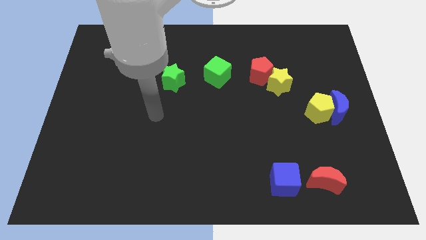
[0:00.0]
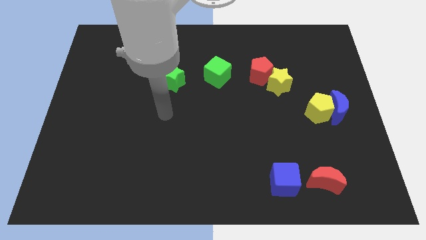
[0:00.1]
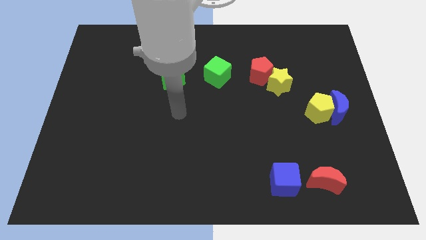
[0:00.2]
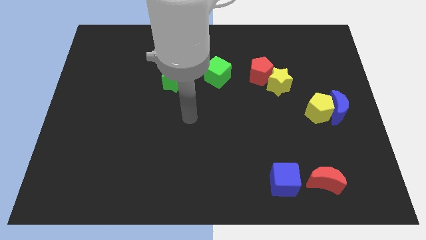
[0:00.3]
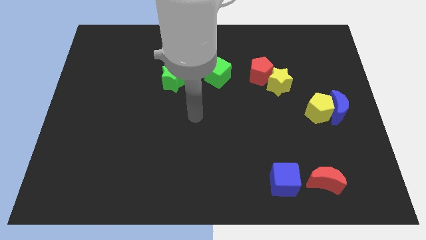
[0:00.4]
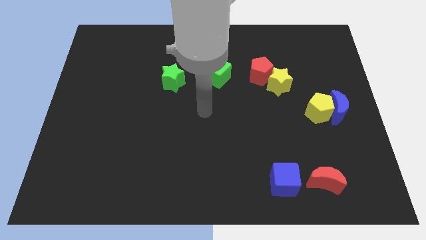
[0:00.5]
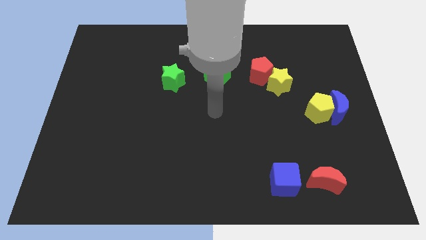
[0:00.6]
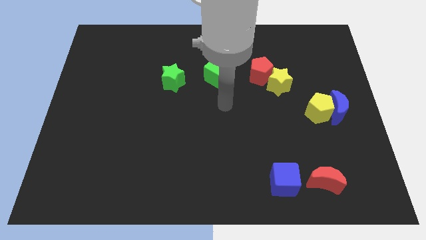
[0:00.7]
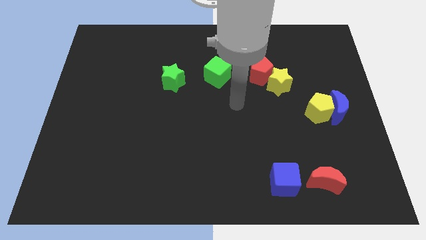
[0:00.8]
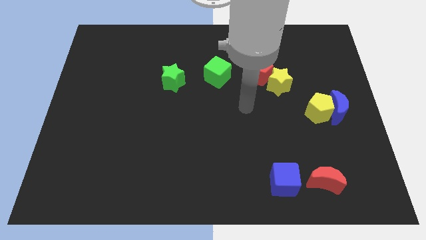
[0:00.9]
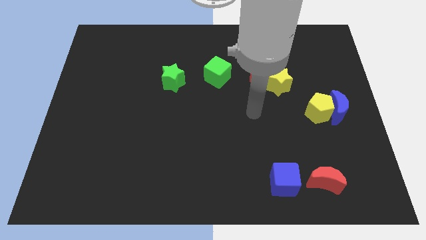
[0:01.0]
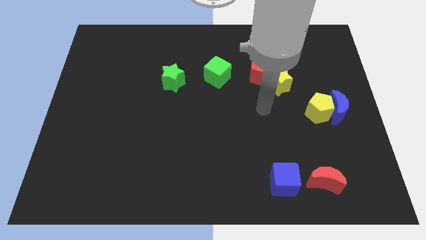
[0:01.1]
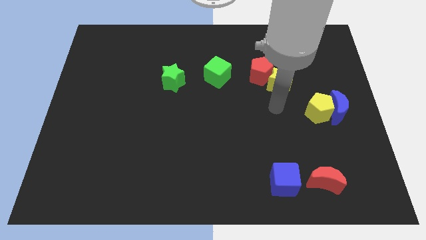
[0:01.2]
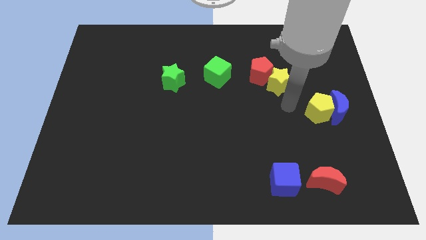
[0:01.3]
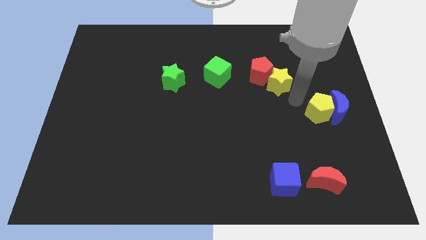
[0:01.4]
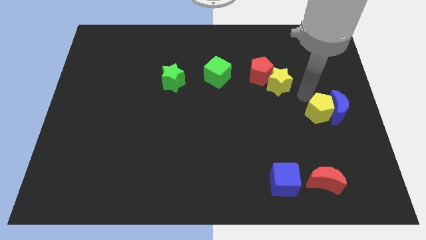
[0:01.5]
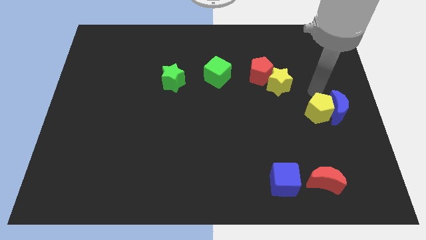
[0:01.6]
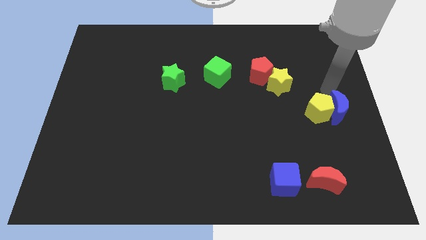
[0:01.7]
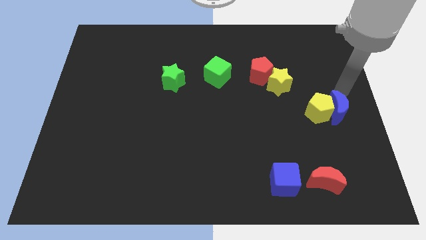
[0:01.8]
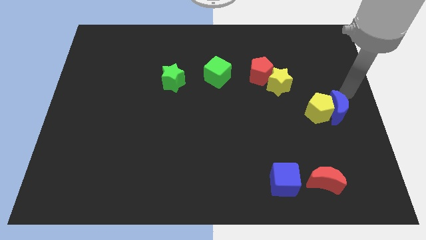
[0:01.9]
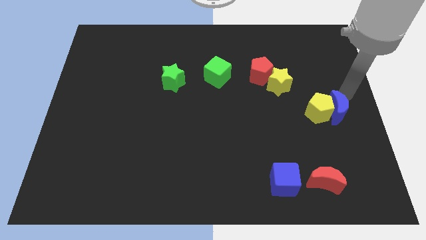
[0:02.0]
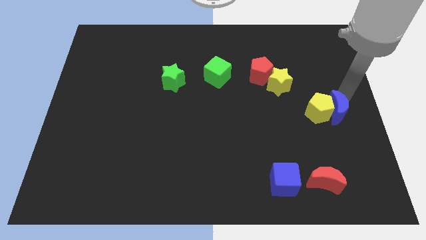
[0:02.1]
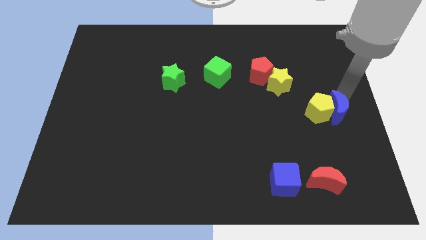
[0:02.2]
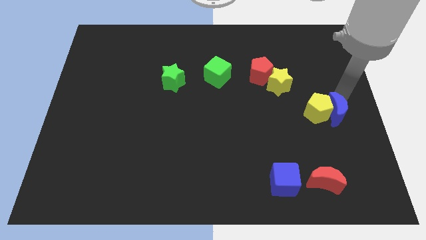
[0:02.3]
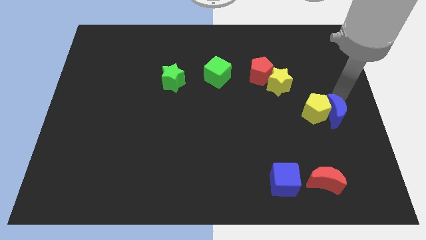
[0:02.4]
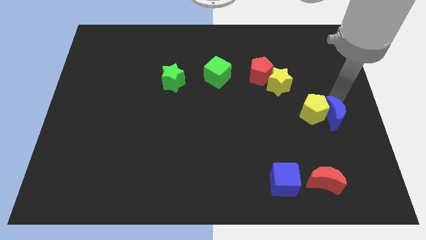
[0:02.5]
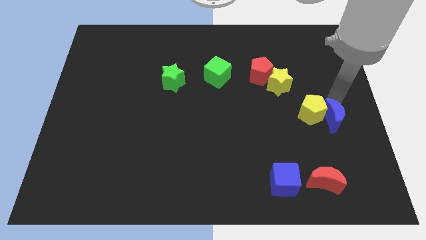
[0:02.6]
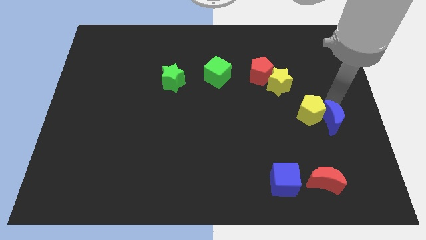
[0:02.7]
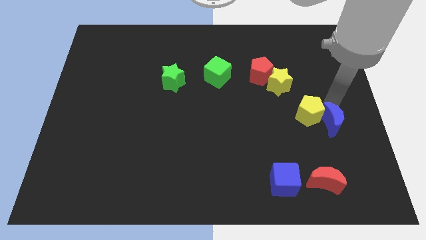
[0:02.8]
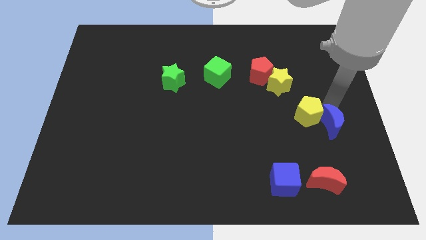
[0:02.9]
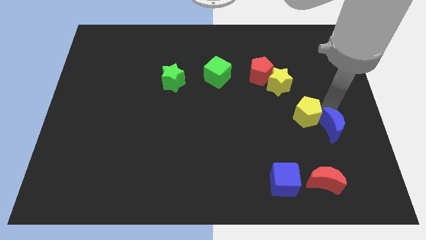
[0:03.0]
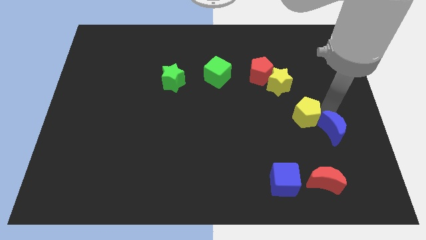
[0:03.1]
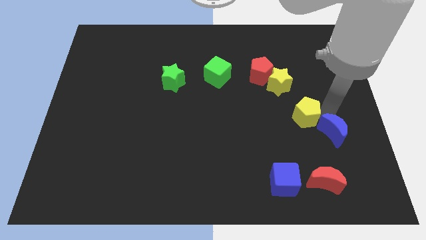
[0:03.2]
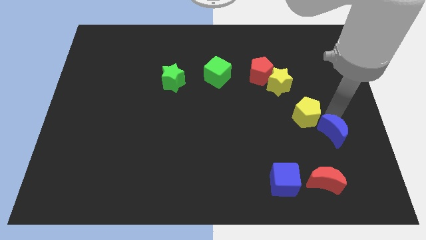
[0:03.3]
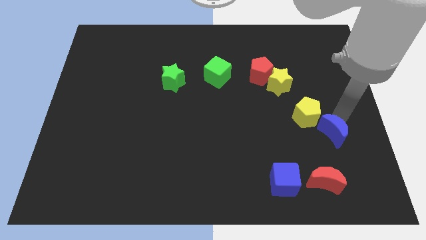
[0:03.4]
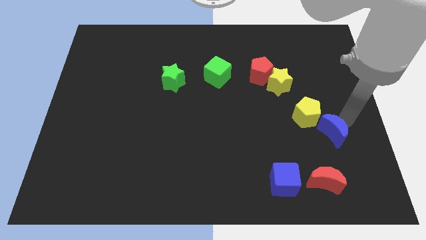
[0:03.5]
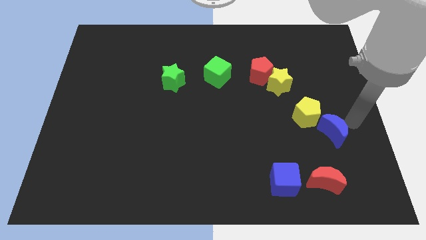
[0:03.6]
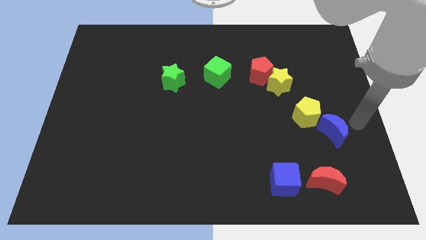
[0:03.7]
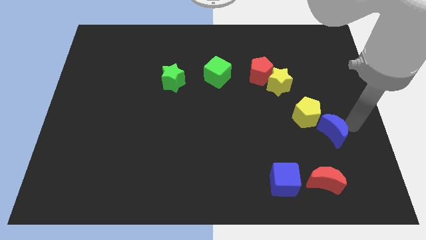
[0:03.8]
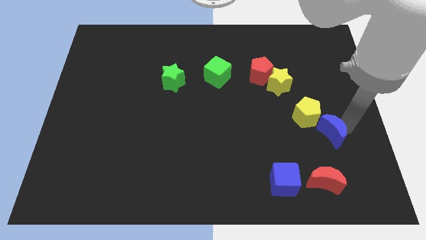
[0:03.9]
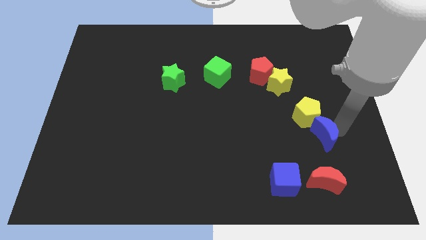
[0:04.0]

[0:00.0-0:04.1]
move the blue moon a little downwards and left diagonally

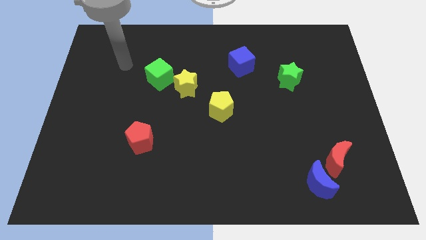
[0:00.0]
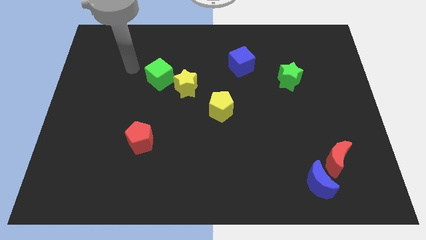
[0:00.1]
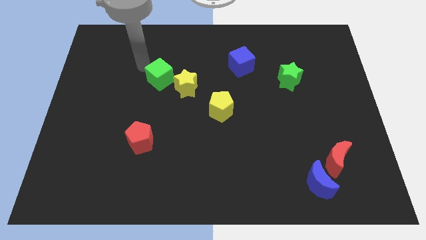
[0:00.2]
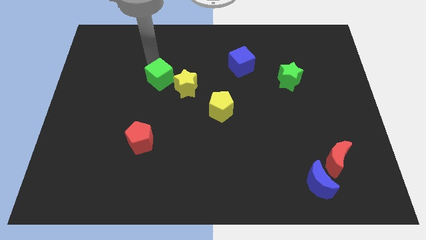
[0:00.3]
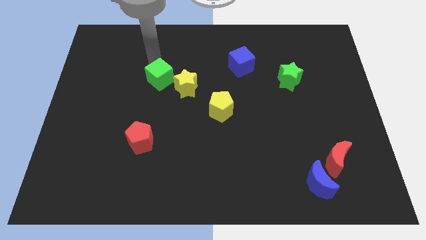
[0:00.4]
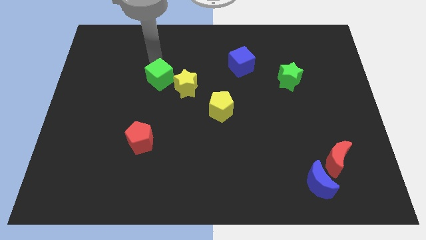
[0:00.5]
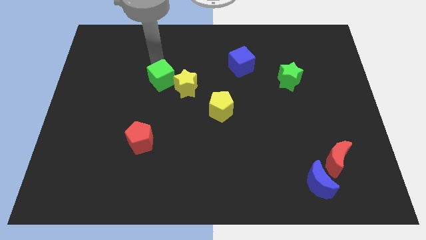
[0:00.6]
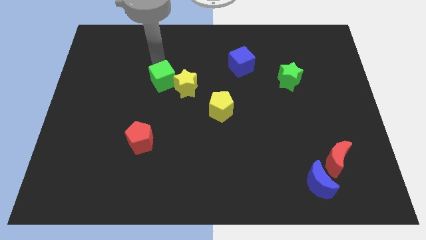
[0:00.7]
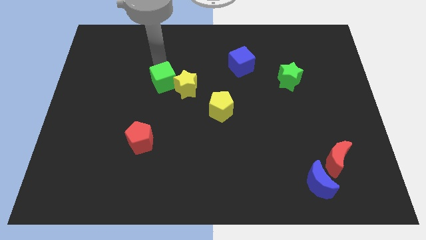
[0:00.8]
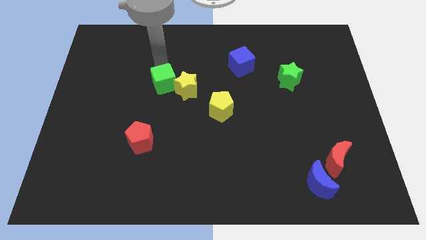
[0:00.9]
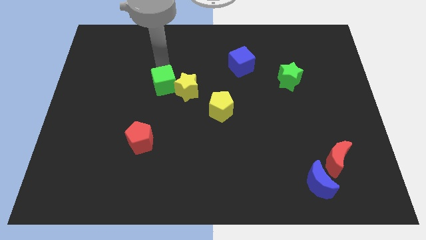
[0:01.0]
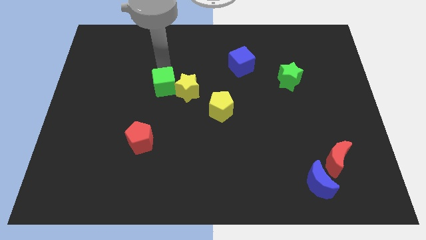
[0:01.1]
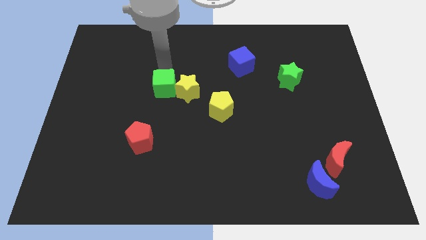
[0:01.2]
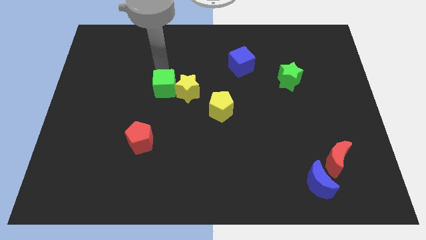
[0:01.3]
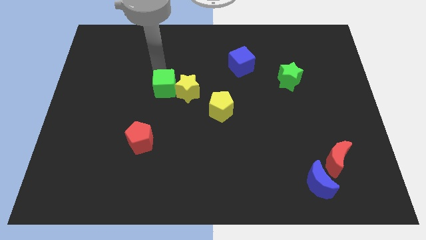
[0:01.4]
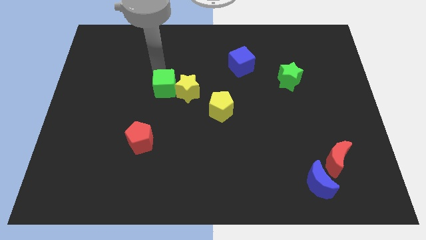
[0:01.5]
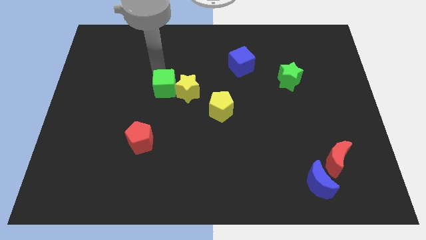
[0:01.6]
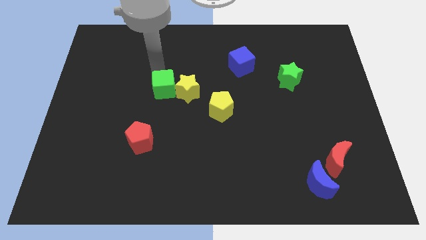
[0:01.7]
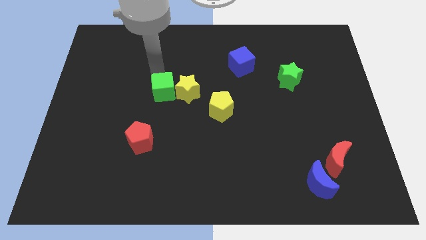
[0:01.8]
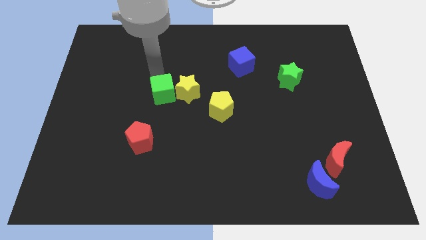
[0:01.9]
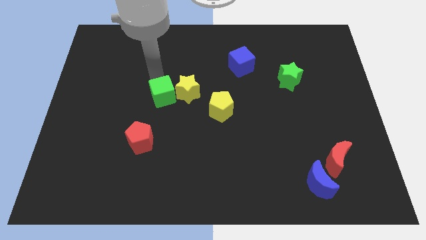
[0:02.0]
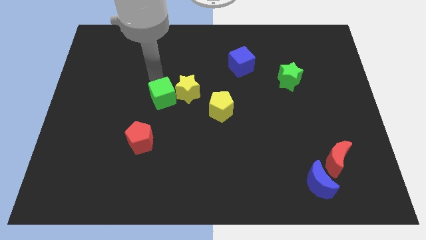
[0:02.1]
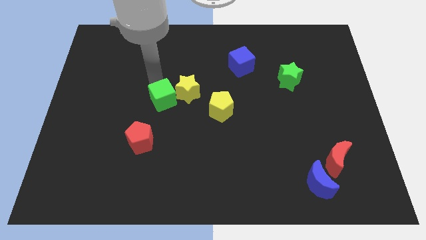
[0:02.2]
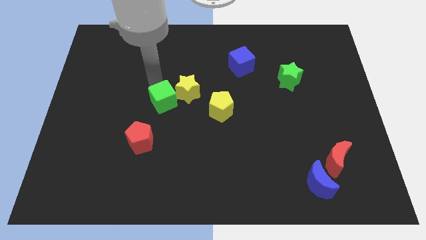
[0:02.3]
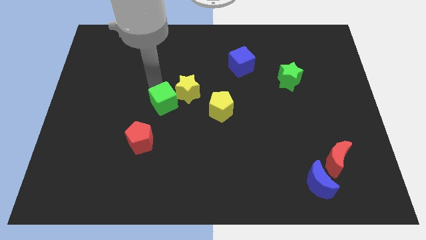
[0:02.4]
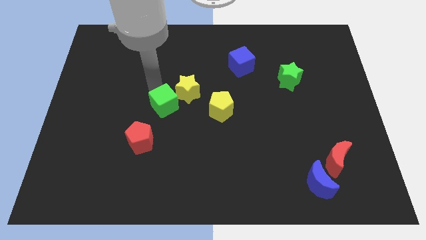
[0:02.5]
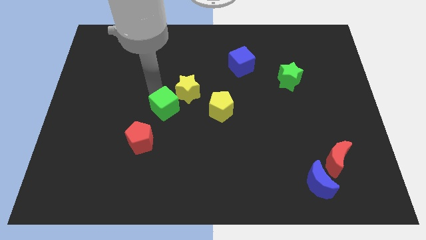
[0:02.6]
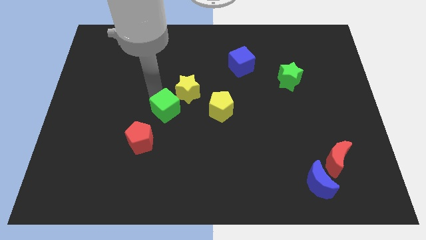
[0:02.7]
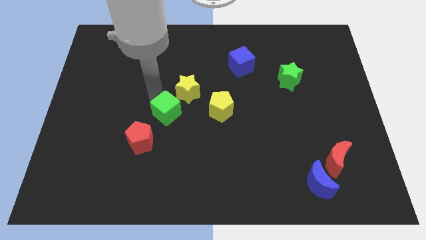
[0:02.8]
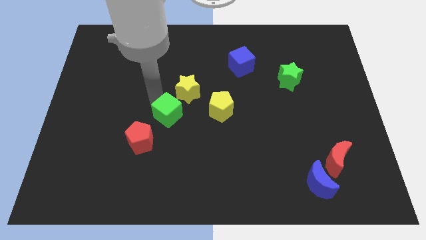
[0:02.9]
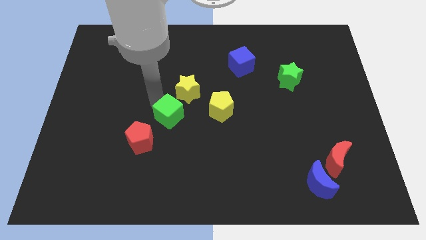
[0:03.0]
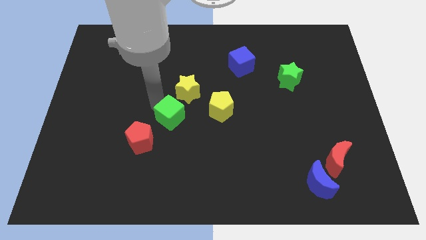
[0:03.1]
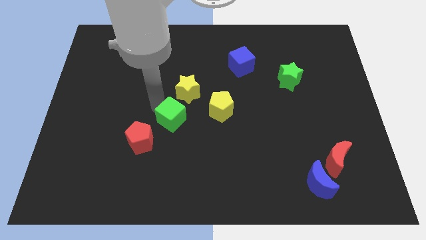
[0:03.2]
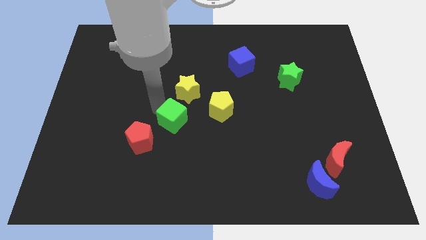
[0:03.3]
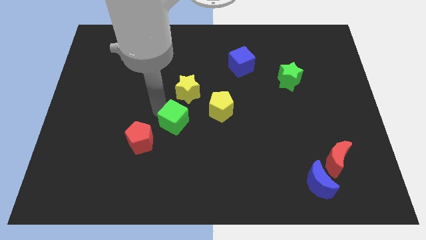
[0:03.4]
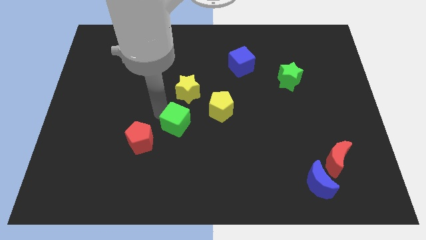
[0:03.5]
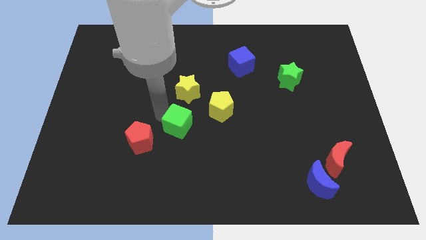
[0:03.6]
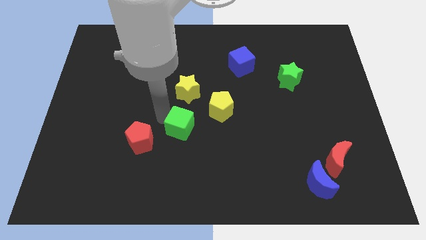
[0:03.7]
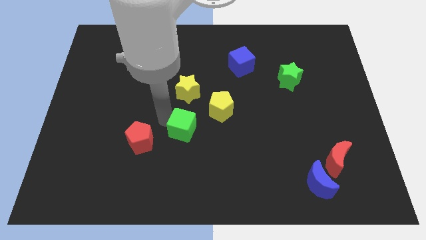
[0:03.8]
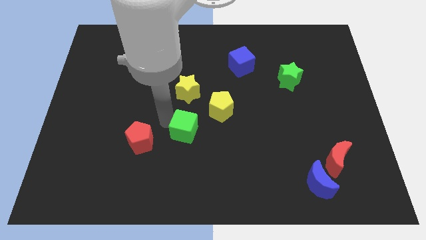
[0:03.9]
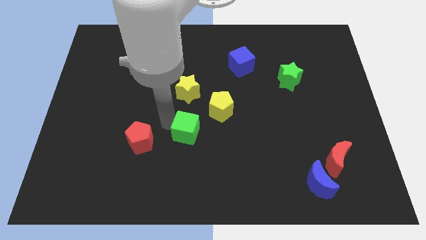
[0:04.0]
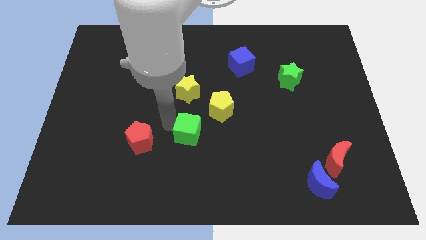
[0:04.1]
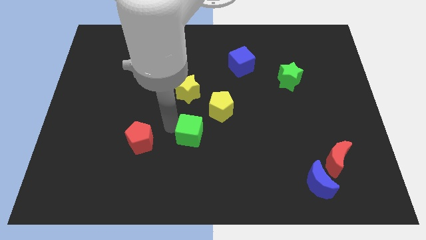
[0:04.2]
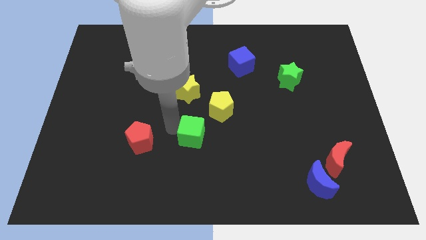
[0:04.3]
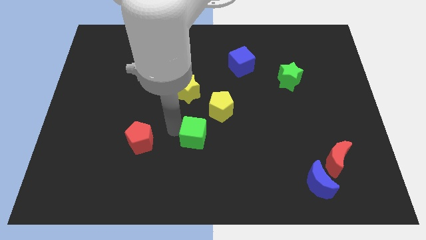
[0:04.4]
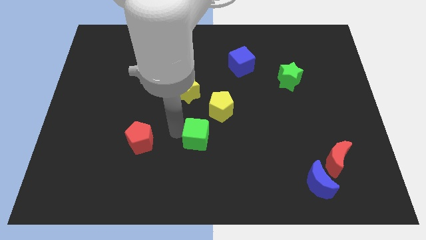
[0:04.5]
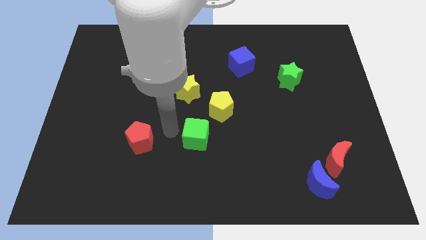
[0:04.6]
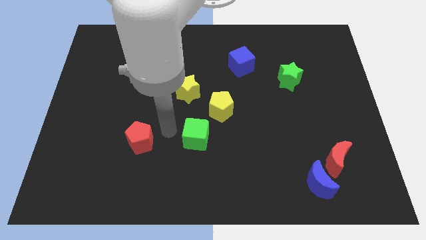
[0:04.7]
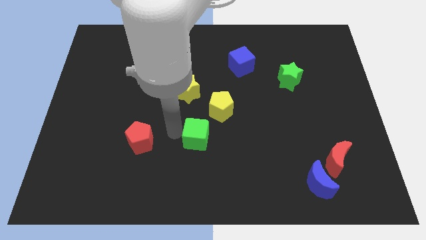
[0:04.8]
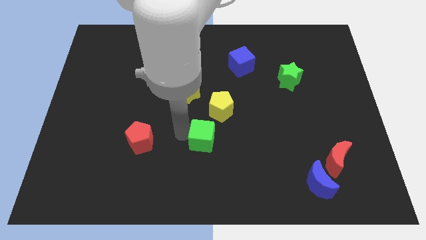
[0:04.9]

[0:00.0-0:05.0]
push the green cube downwards and right diagonally
